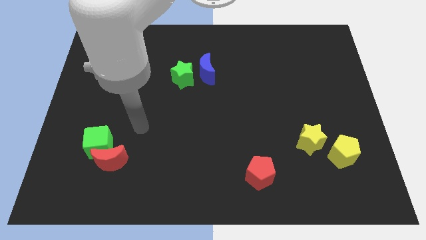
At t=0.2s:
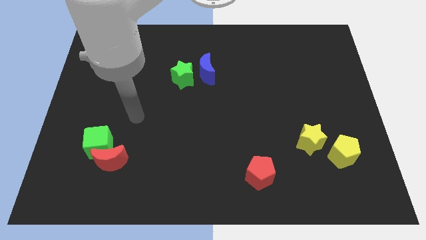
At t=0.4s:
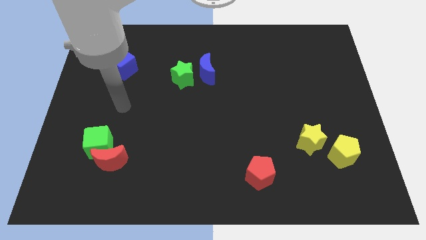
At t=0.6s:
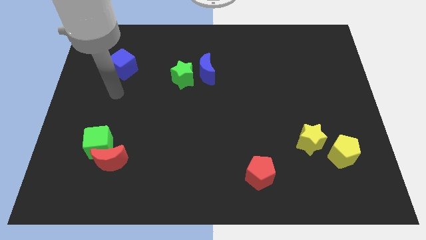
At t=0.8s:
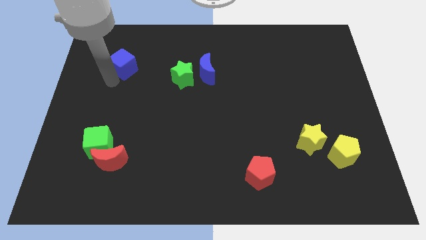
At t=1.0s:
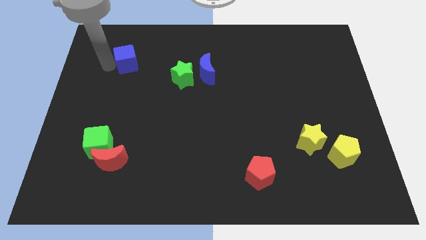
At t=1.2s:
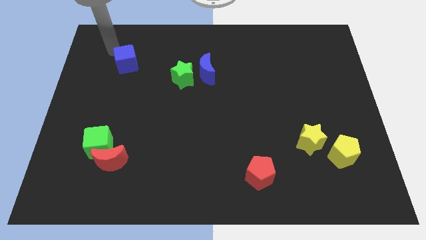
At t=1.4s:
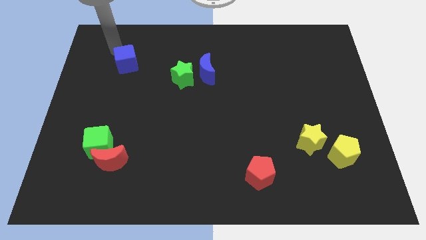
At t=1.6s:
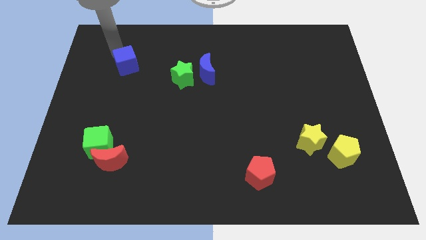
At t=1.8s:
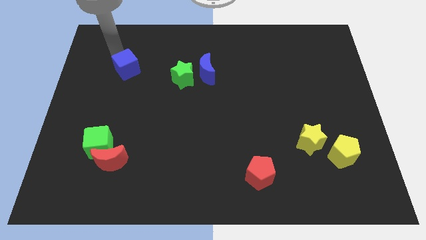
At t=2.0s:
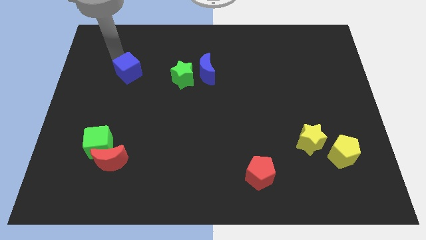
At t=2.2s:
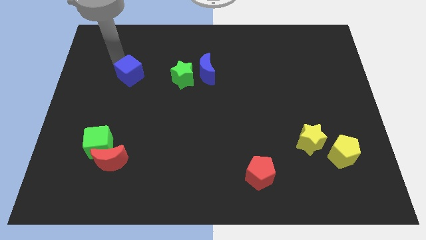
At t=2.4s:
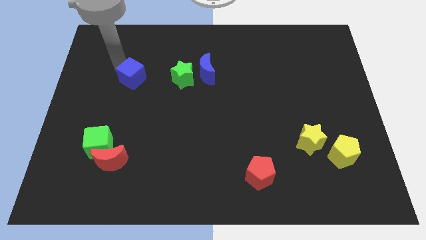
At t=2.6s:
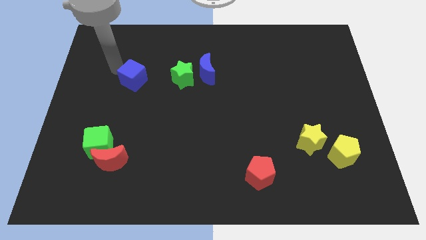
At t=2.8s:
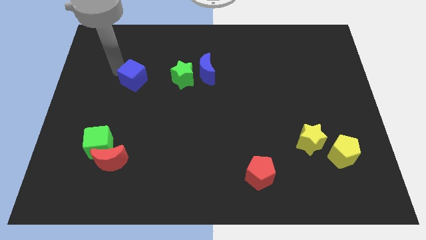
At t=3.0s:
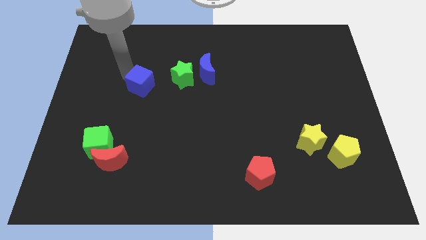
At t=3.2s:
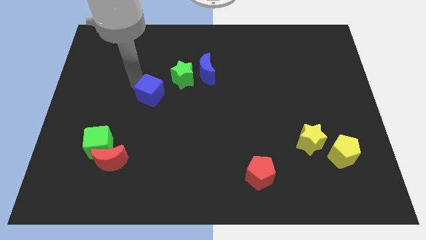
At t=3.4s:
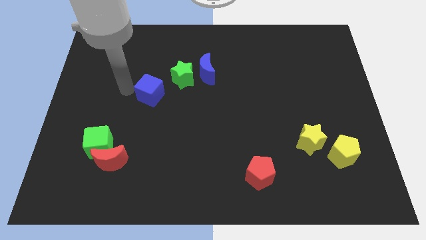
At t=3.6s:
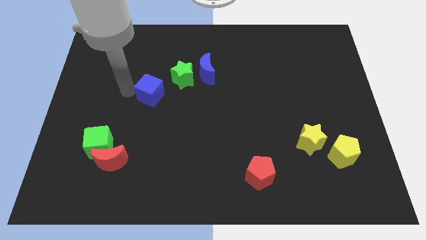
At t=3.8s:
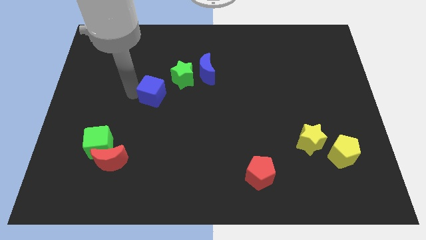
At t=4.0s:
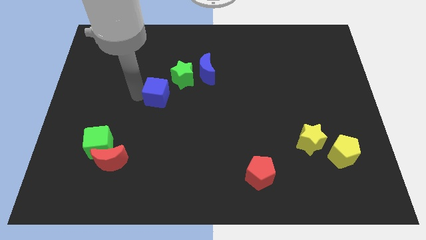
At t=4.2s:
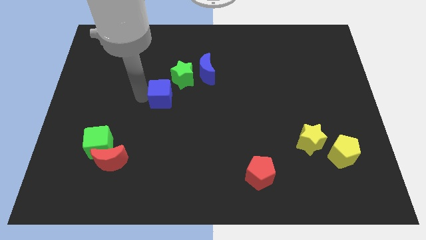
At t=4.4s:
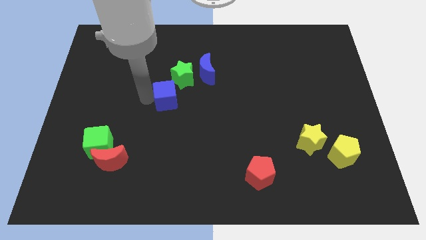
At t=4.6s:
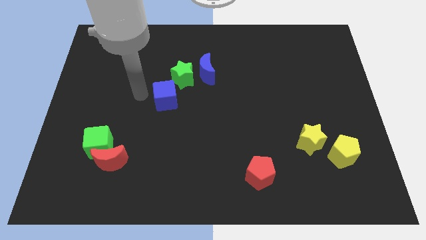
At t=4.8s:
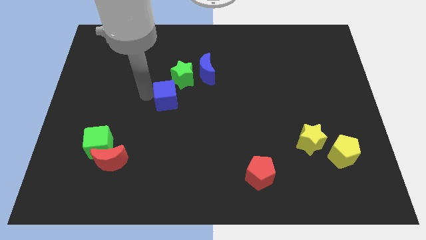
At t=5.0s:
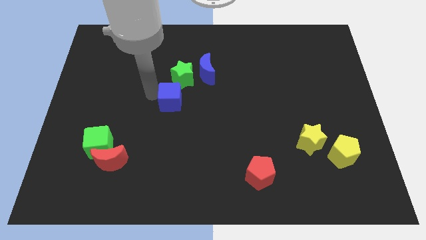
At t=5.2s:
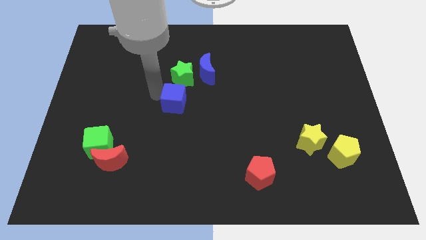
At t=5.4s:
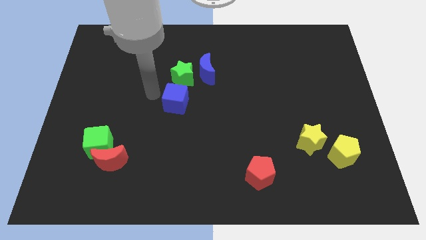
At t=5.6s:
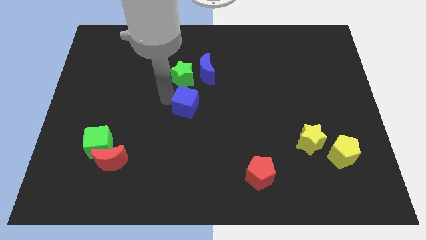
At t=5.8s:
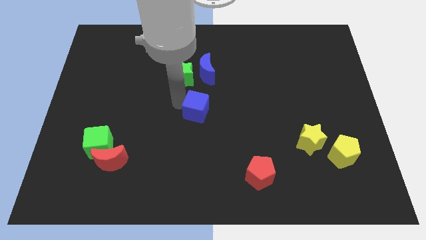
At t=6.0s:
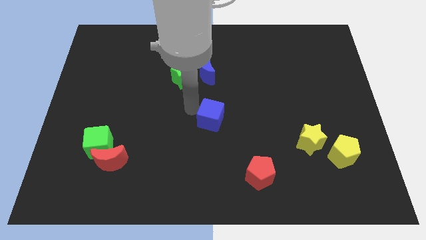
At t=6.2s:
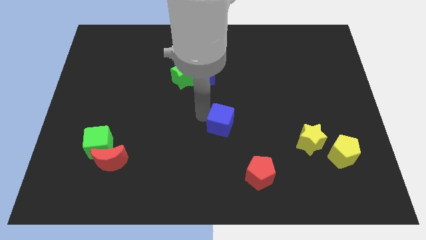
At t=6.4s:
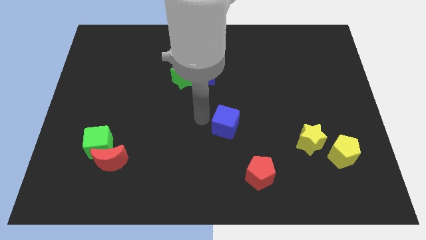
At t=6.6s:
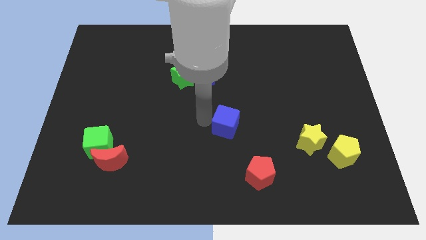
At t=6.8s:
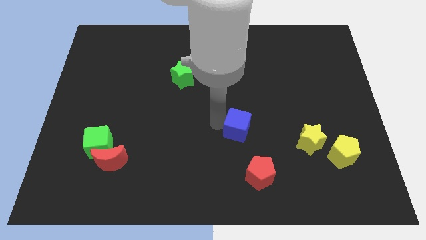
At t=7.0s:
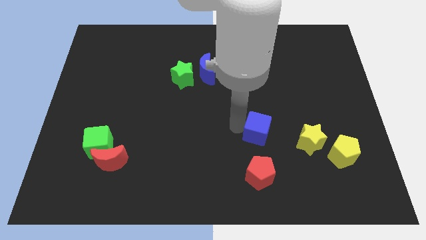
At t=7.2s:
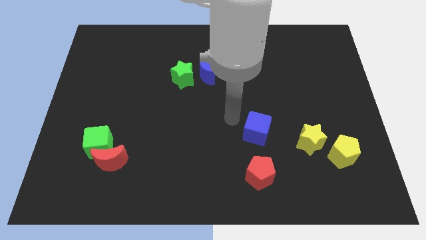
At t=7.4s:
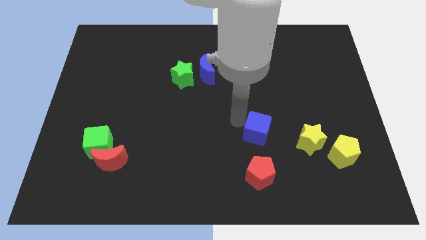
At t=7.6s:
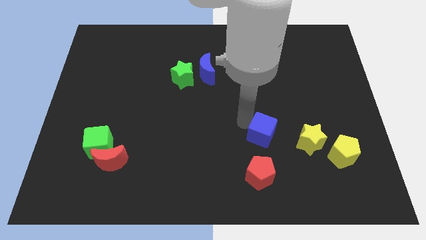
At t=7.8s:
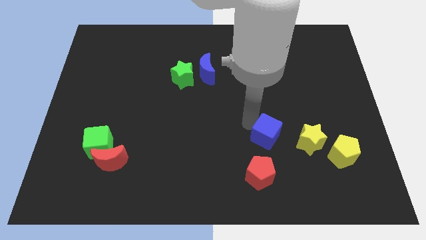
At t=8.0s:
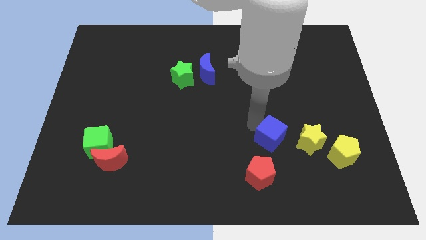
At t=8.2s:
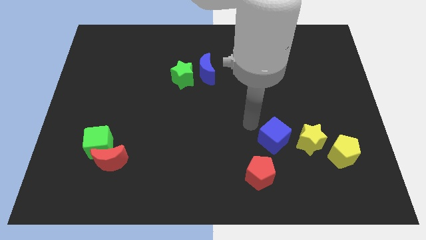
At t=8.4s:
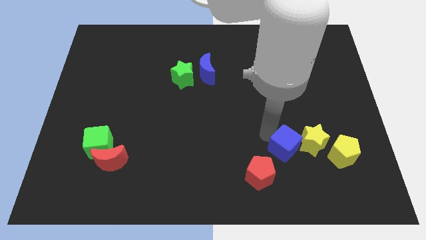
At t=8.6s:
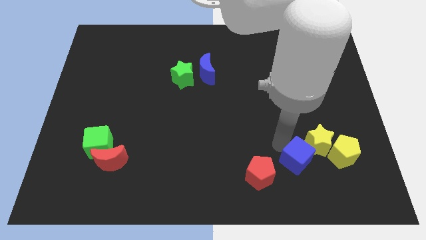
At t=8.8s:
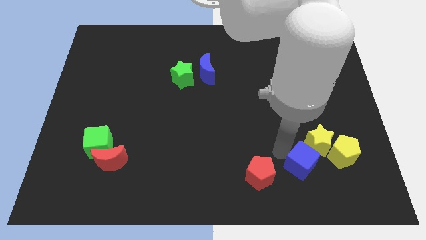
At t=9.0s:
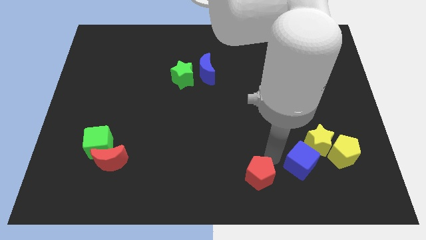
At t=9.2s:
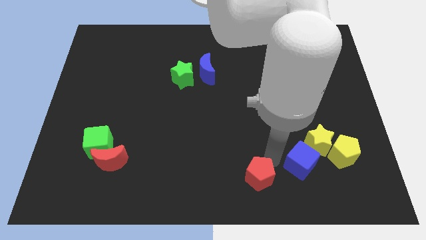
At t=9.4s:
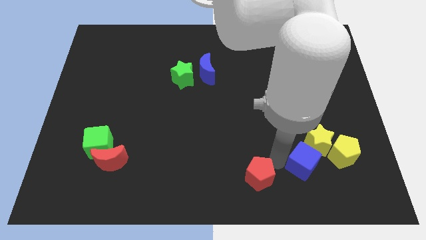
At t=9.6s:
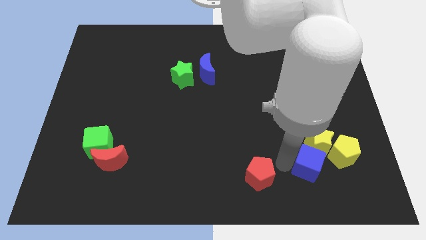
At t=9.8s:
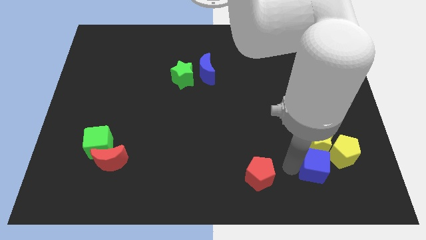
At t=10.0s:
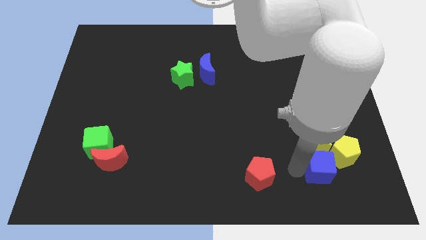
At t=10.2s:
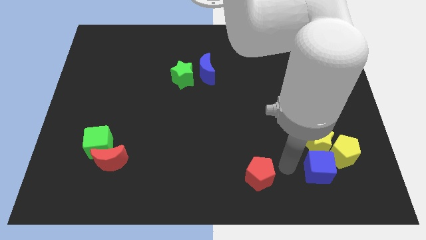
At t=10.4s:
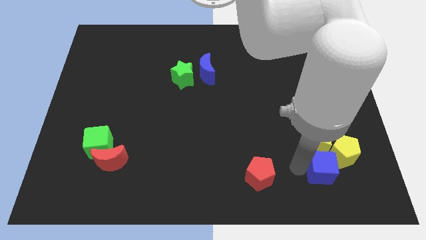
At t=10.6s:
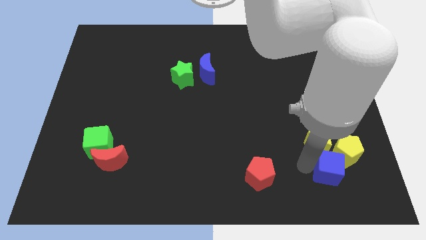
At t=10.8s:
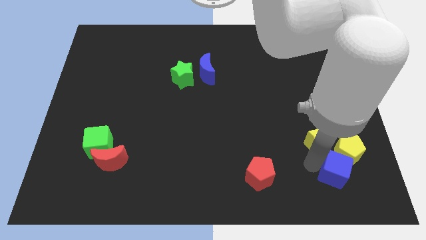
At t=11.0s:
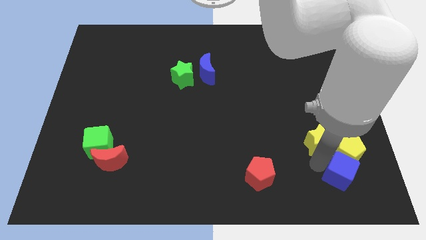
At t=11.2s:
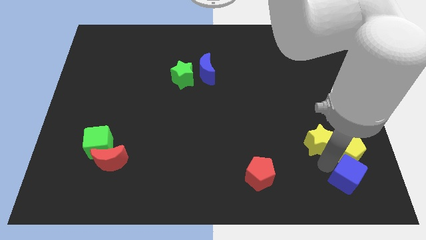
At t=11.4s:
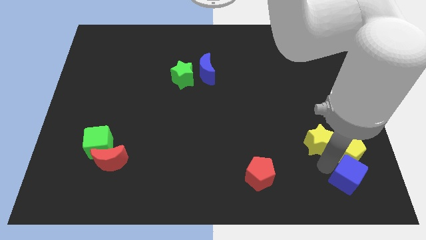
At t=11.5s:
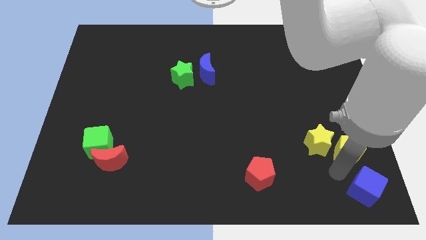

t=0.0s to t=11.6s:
move the blue cube to the bottom right corner
